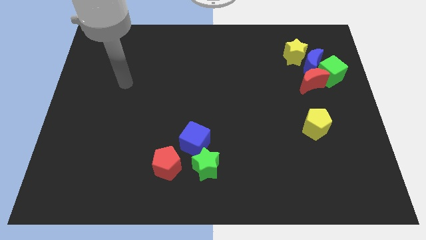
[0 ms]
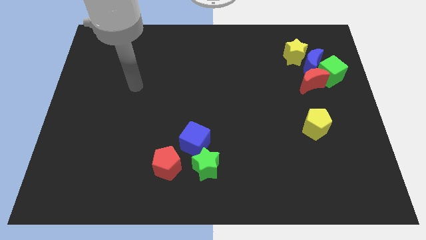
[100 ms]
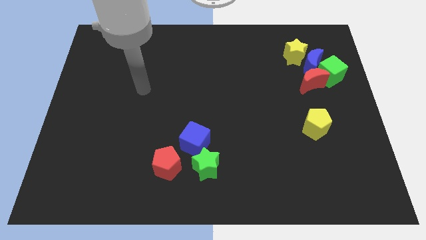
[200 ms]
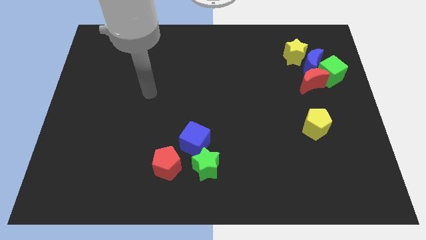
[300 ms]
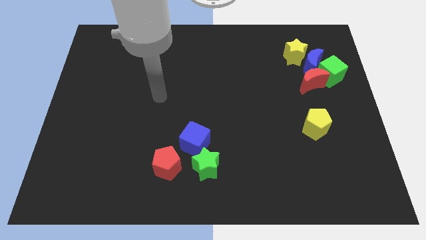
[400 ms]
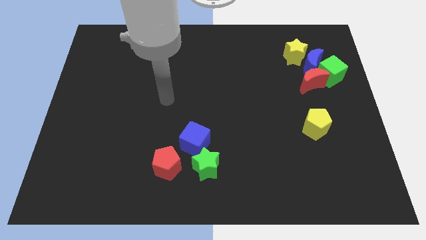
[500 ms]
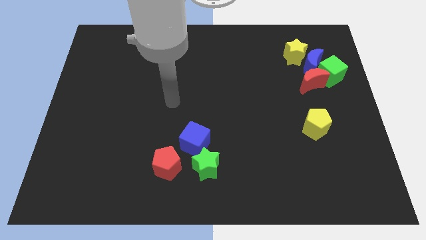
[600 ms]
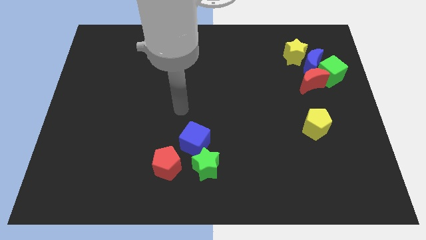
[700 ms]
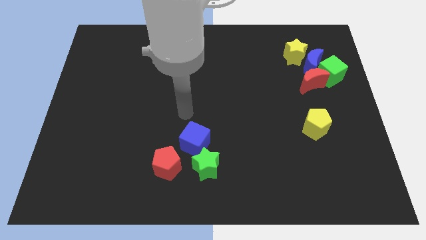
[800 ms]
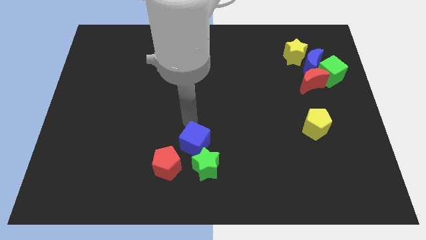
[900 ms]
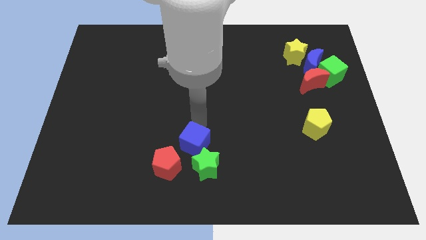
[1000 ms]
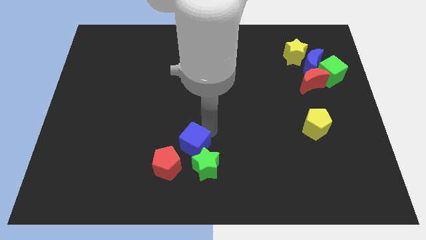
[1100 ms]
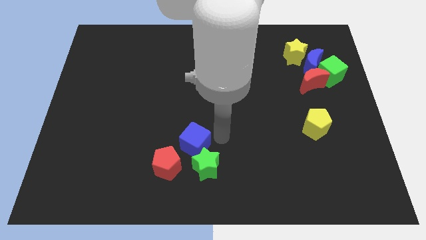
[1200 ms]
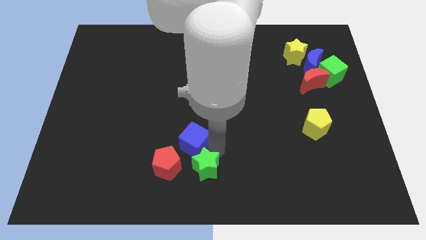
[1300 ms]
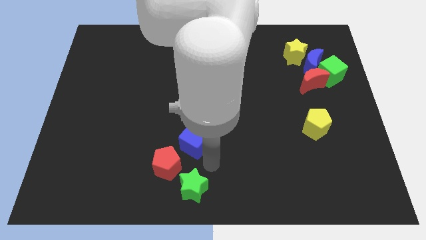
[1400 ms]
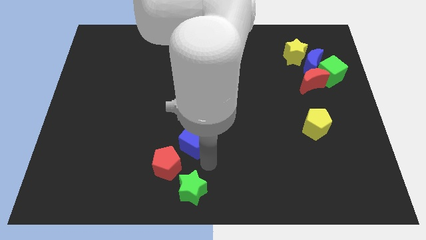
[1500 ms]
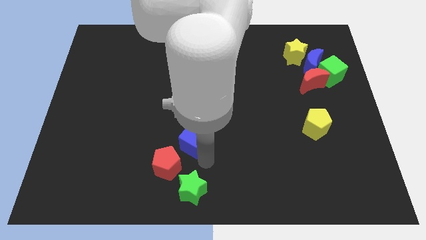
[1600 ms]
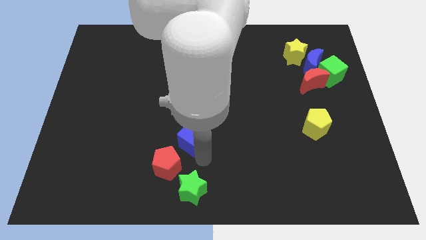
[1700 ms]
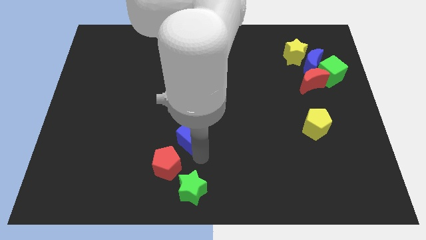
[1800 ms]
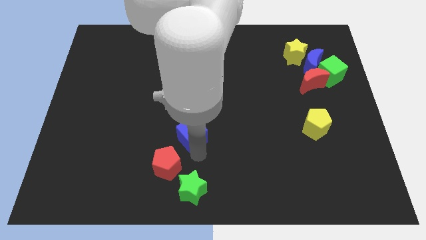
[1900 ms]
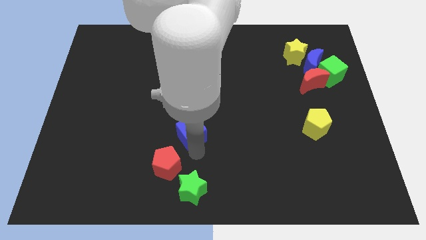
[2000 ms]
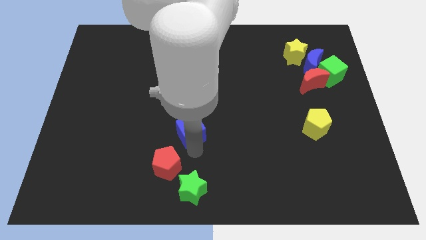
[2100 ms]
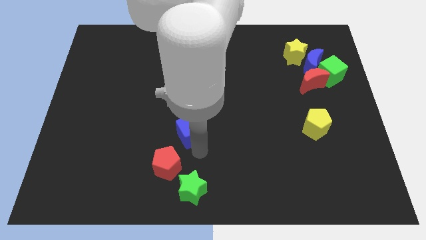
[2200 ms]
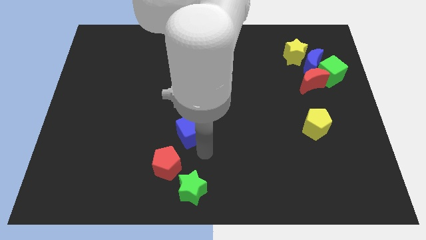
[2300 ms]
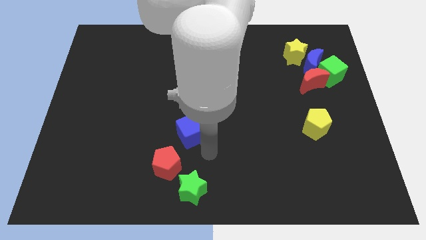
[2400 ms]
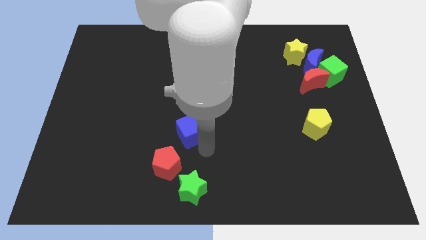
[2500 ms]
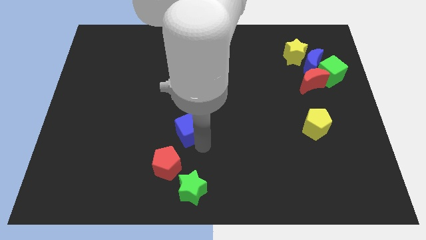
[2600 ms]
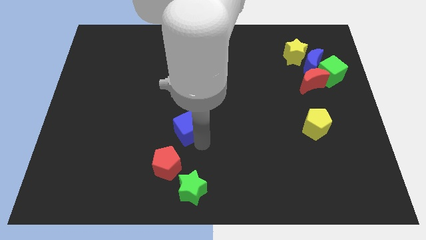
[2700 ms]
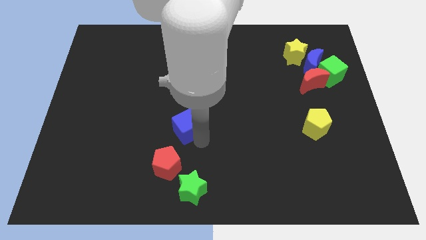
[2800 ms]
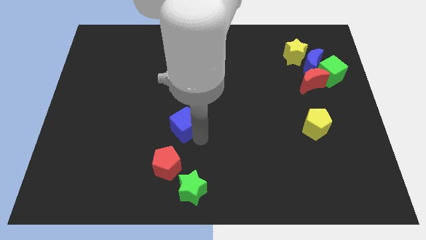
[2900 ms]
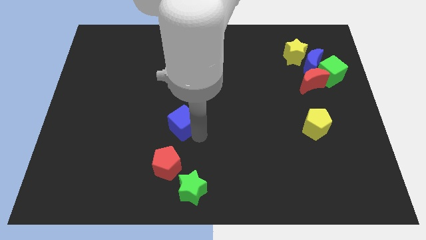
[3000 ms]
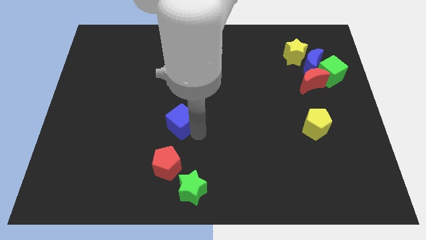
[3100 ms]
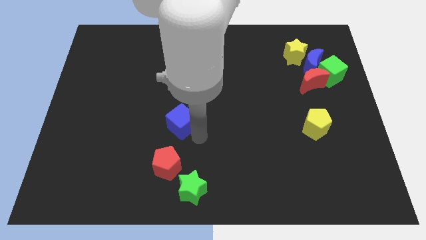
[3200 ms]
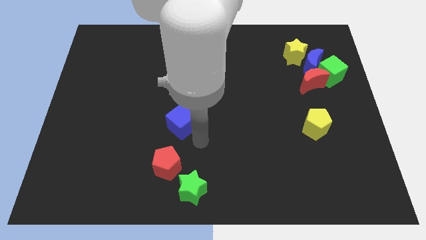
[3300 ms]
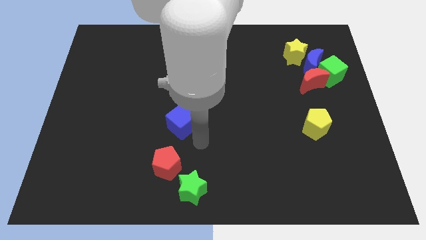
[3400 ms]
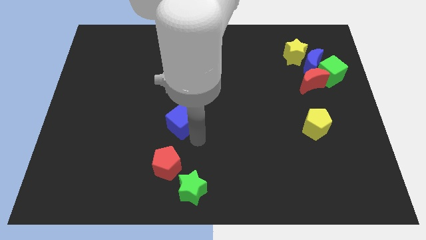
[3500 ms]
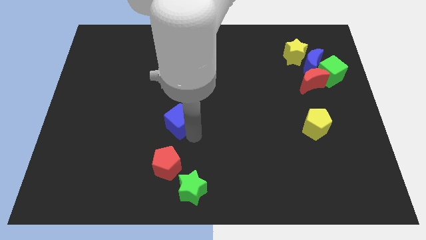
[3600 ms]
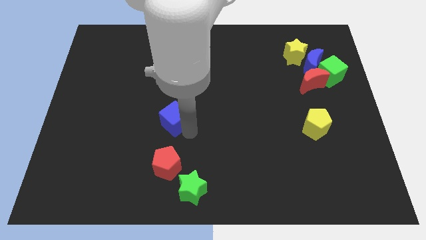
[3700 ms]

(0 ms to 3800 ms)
slightly slide the blue cube up and then left

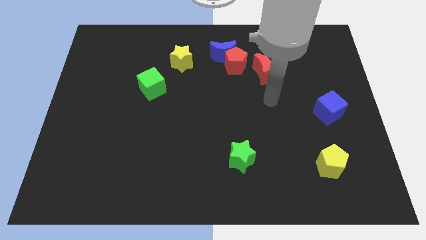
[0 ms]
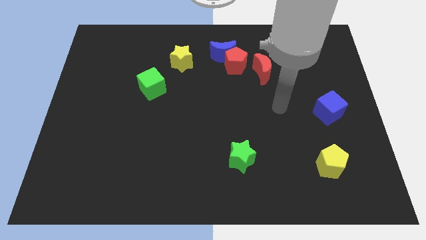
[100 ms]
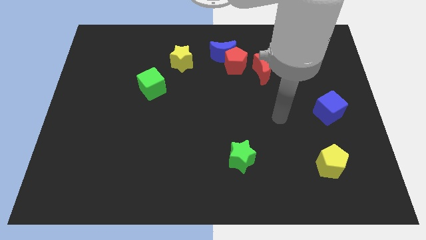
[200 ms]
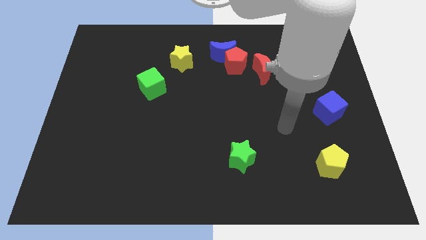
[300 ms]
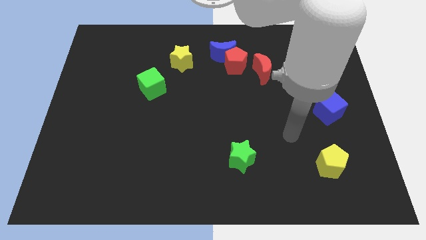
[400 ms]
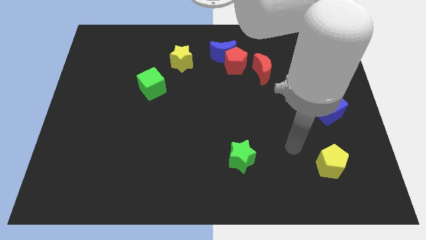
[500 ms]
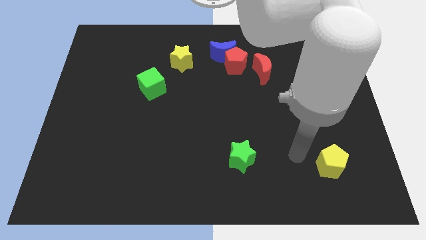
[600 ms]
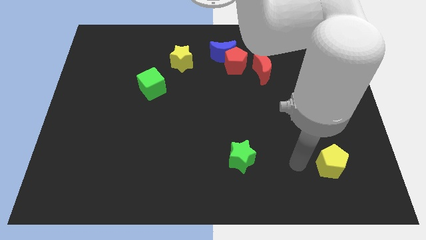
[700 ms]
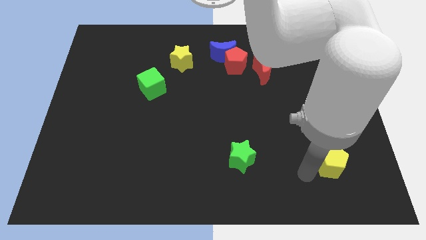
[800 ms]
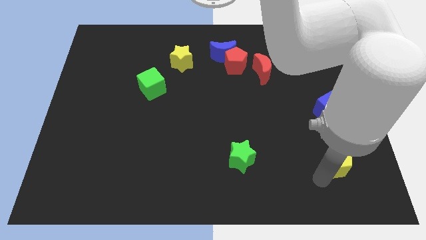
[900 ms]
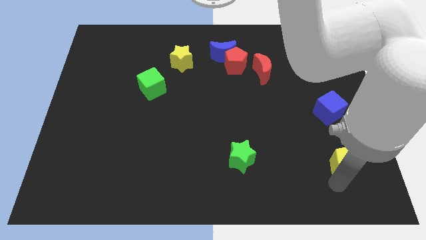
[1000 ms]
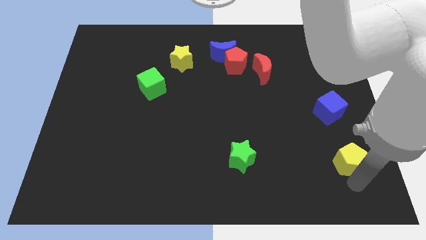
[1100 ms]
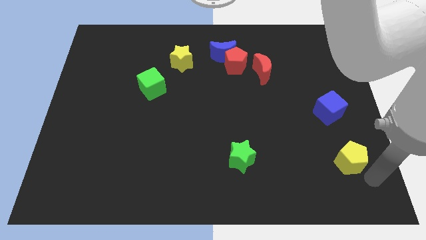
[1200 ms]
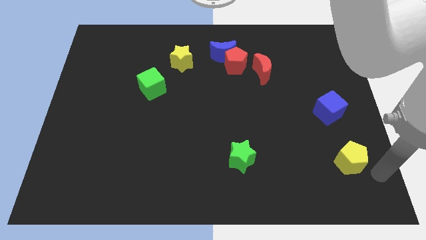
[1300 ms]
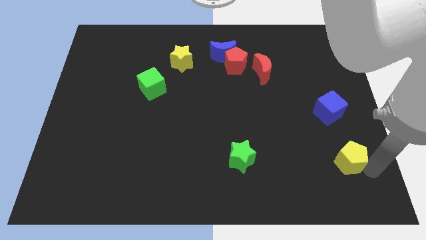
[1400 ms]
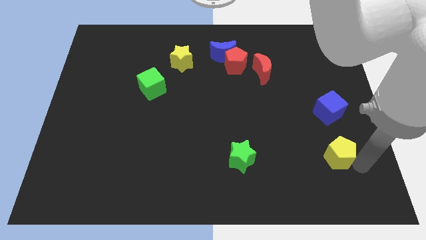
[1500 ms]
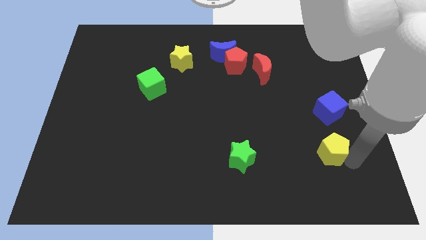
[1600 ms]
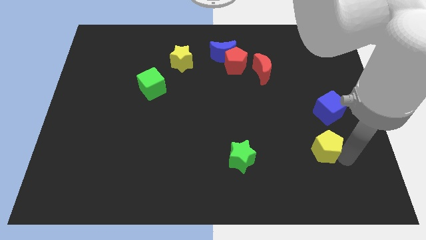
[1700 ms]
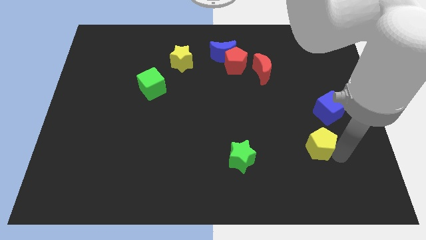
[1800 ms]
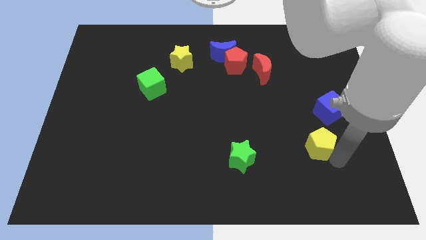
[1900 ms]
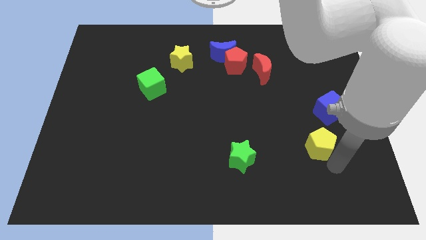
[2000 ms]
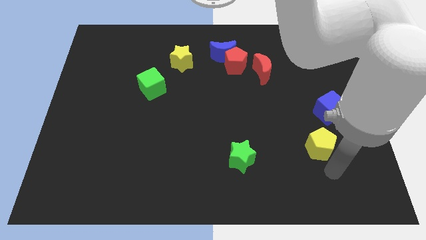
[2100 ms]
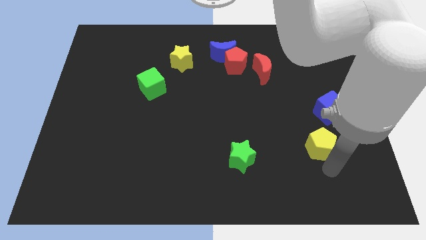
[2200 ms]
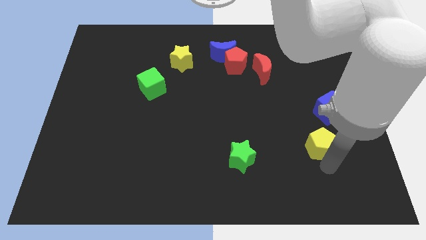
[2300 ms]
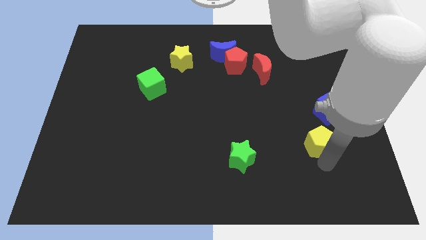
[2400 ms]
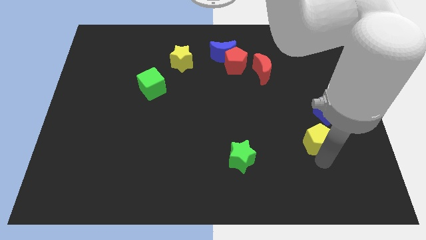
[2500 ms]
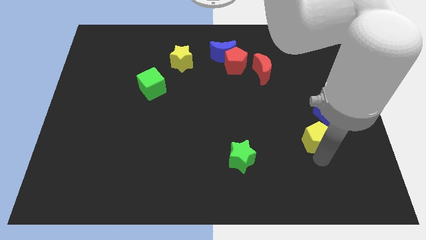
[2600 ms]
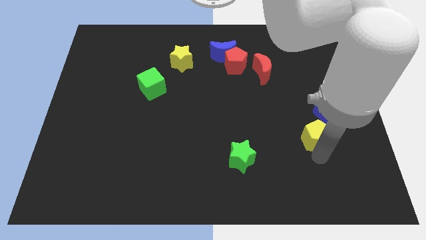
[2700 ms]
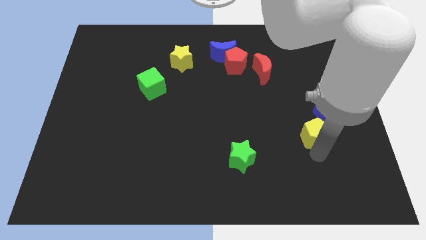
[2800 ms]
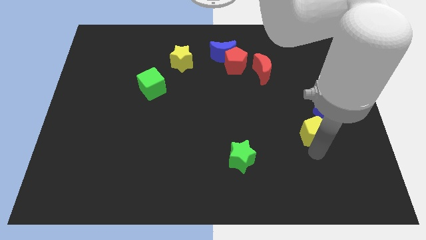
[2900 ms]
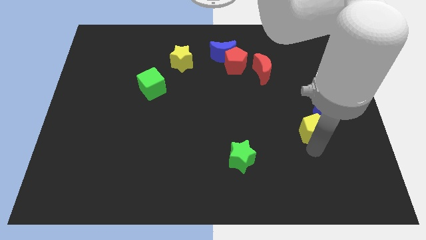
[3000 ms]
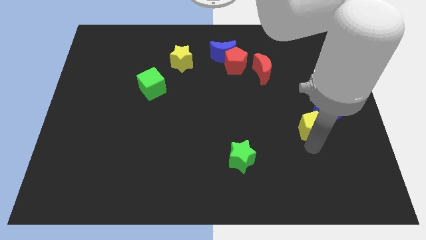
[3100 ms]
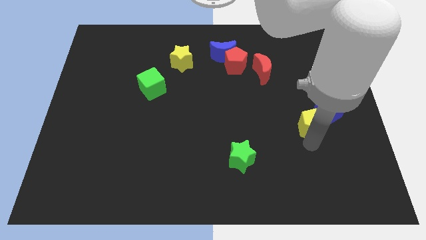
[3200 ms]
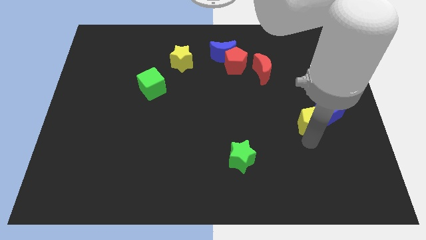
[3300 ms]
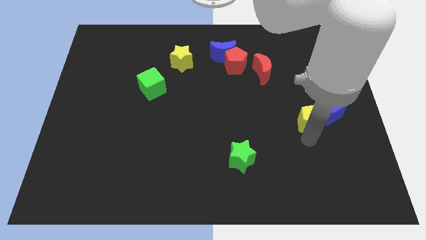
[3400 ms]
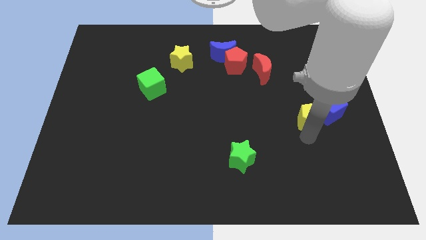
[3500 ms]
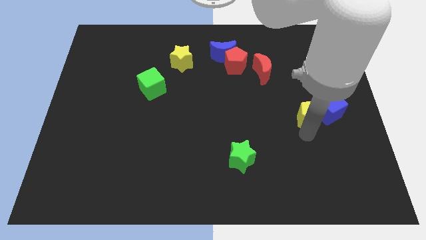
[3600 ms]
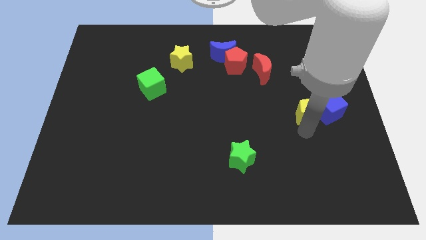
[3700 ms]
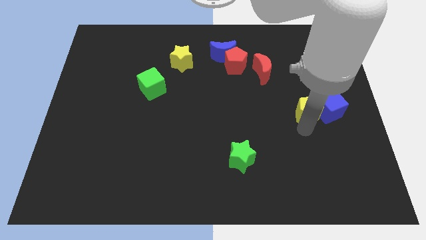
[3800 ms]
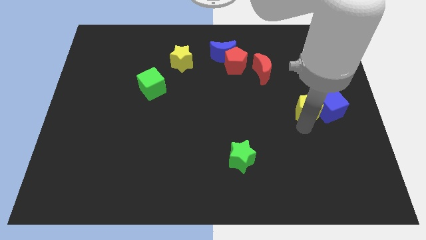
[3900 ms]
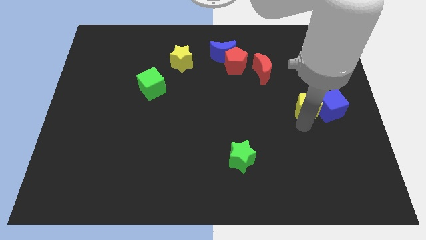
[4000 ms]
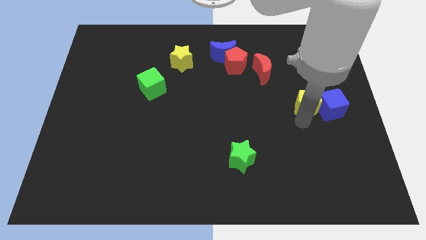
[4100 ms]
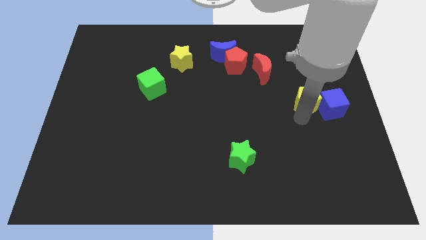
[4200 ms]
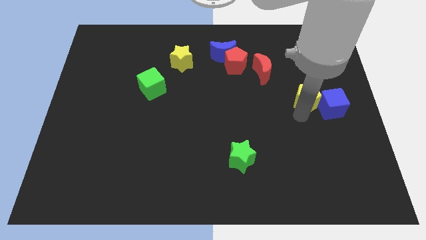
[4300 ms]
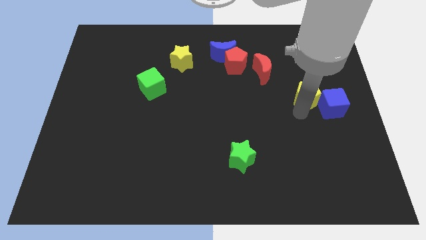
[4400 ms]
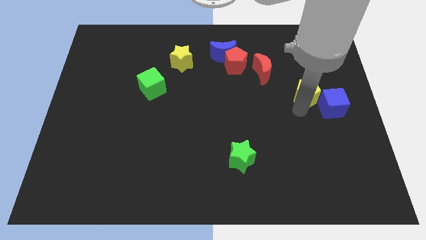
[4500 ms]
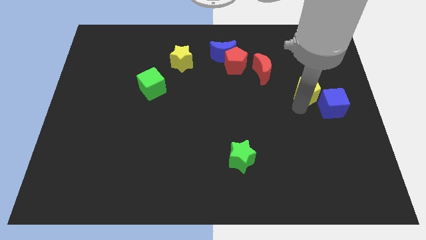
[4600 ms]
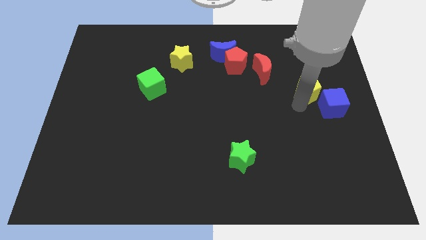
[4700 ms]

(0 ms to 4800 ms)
move the yellow pentagon up
